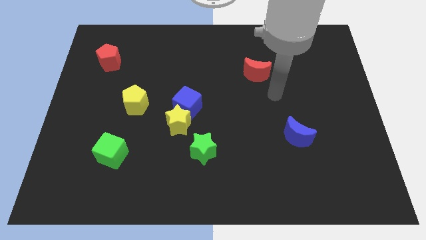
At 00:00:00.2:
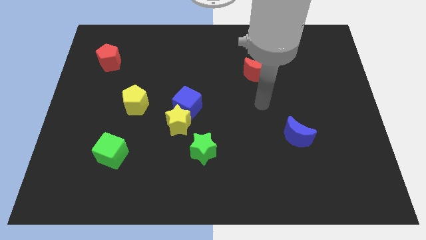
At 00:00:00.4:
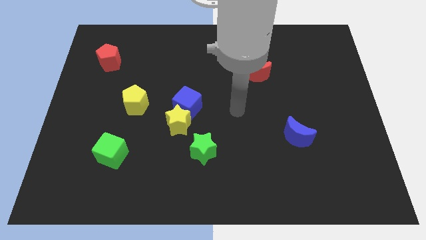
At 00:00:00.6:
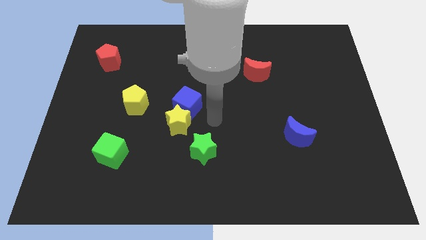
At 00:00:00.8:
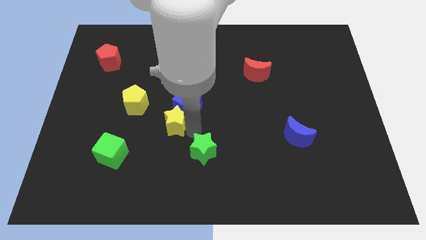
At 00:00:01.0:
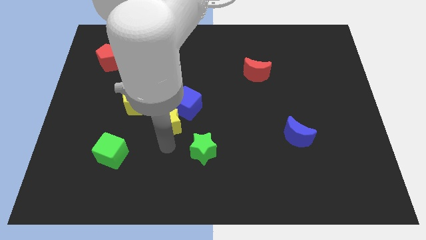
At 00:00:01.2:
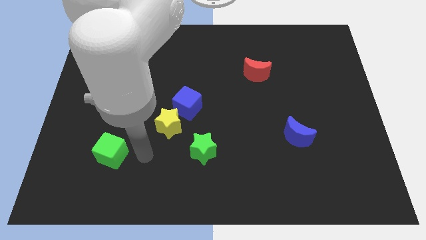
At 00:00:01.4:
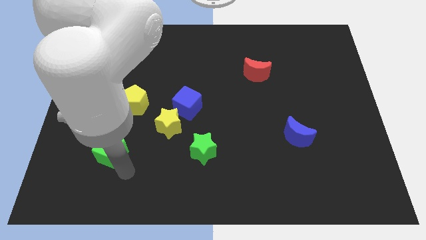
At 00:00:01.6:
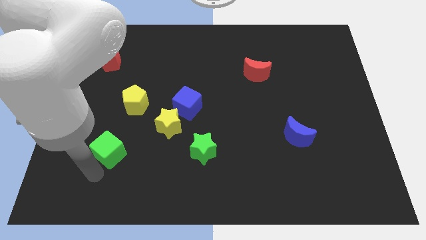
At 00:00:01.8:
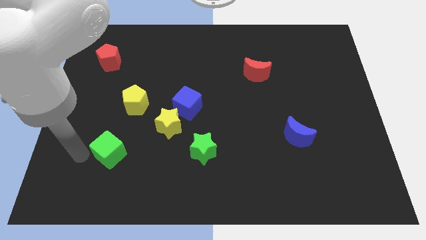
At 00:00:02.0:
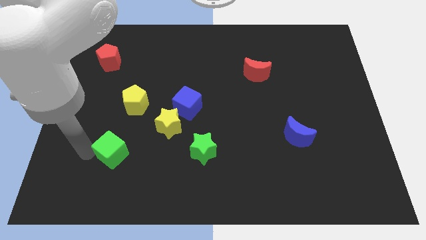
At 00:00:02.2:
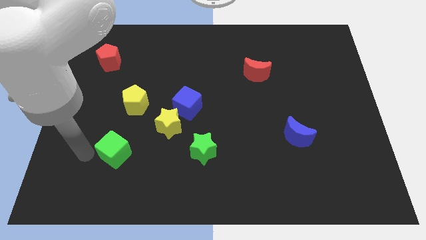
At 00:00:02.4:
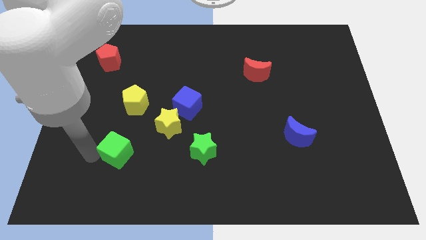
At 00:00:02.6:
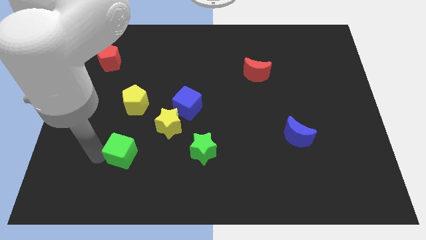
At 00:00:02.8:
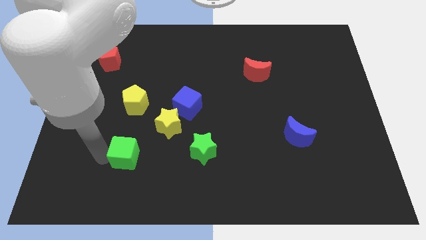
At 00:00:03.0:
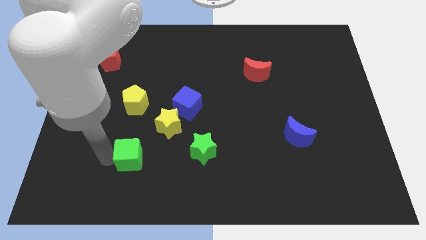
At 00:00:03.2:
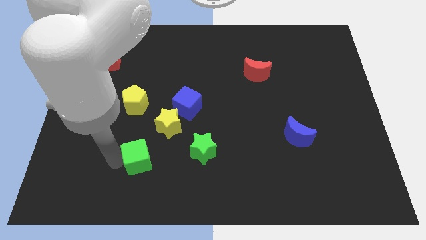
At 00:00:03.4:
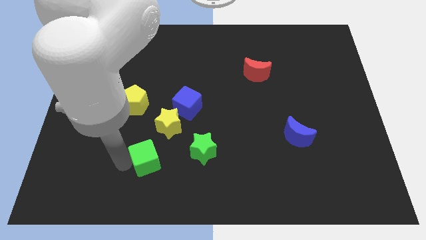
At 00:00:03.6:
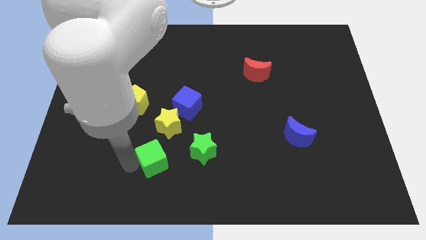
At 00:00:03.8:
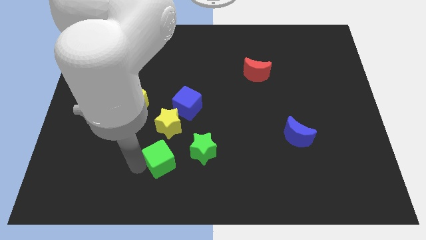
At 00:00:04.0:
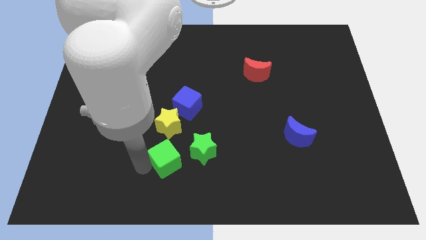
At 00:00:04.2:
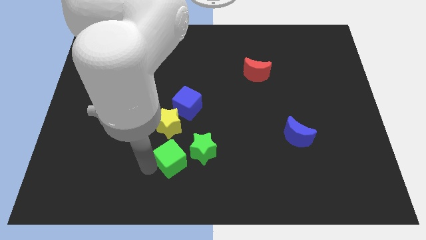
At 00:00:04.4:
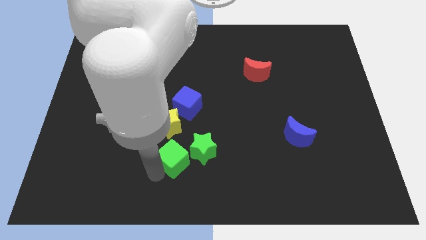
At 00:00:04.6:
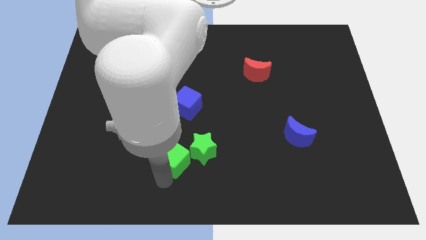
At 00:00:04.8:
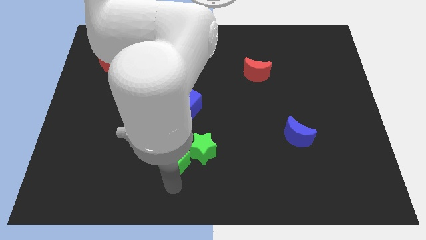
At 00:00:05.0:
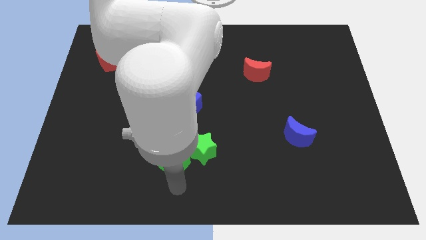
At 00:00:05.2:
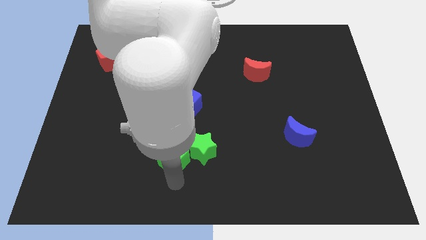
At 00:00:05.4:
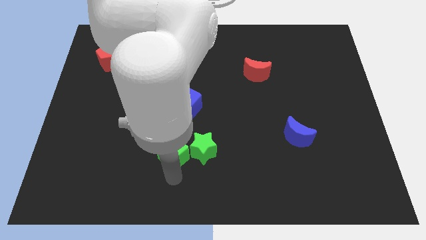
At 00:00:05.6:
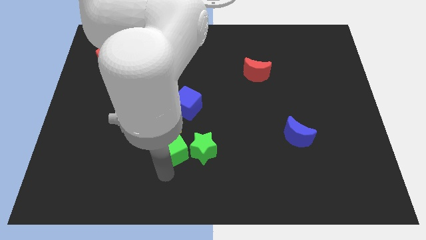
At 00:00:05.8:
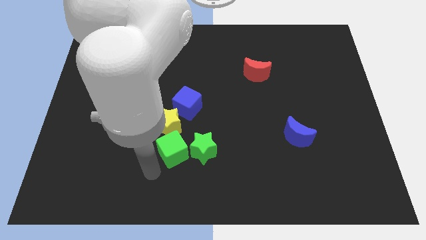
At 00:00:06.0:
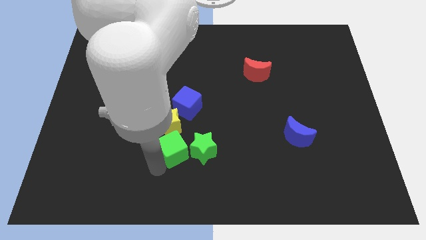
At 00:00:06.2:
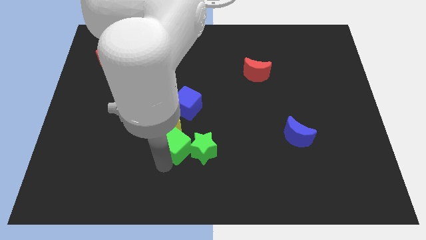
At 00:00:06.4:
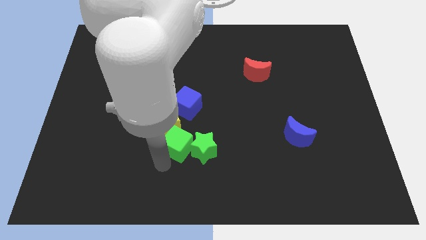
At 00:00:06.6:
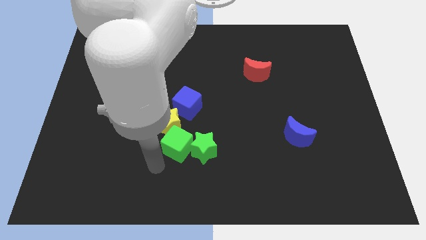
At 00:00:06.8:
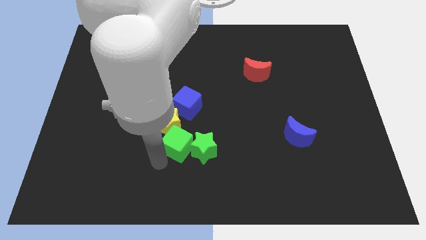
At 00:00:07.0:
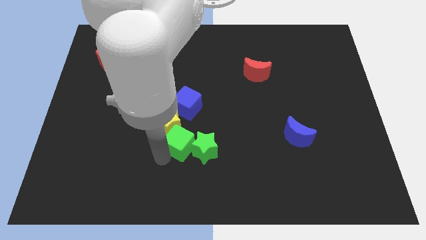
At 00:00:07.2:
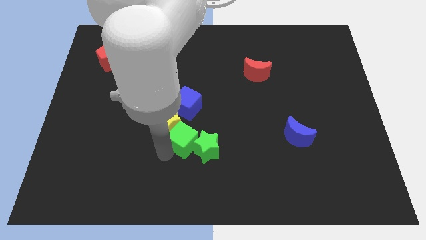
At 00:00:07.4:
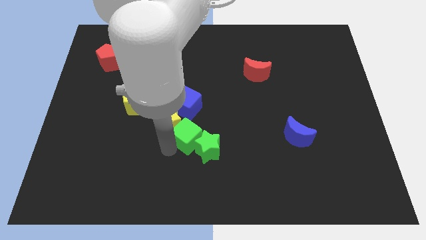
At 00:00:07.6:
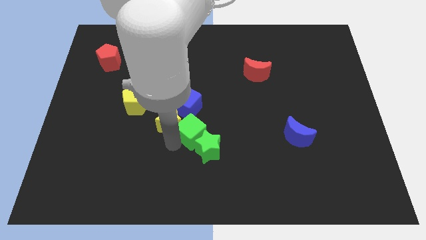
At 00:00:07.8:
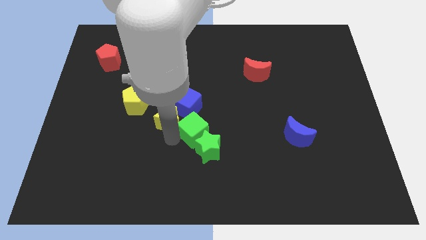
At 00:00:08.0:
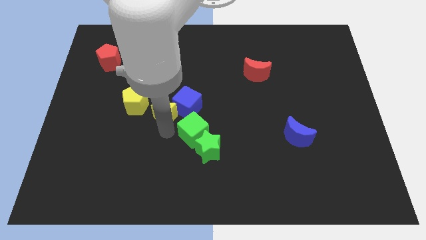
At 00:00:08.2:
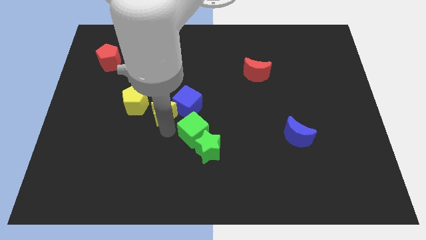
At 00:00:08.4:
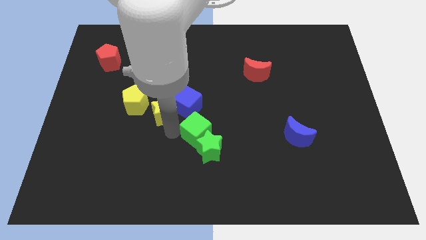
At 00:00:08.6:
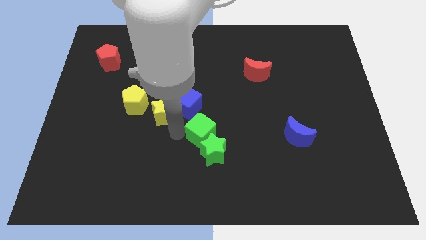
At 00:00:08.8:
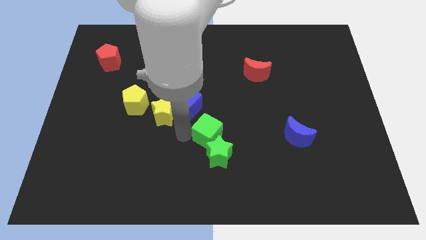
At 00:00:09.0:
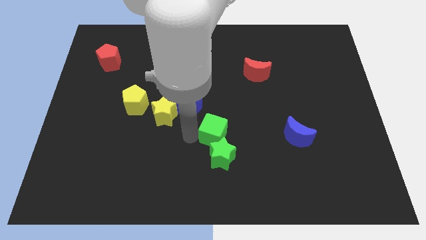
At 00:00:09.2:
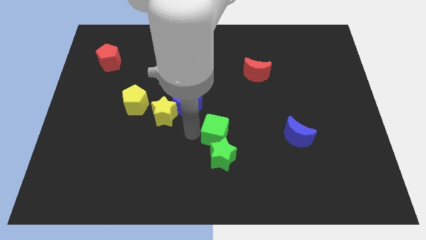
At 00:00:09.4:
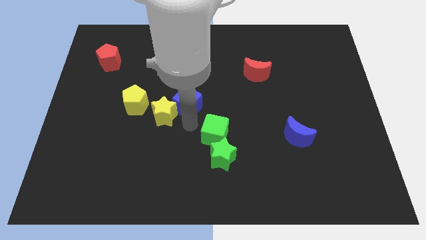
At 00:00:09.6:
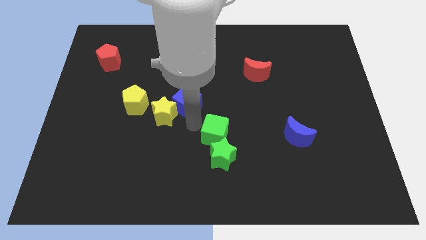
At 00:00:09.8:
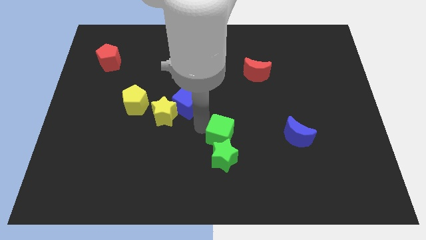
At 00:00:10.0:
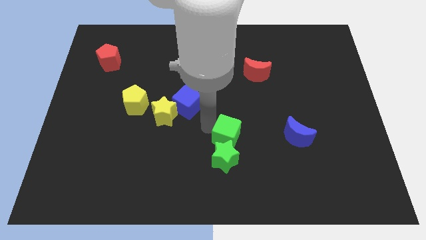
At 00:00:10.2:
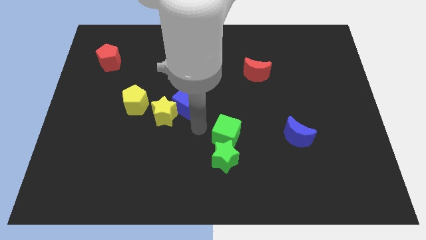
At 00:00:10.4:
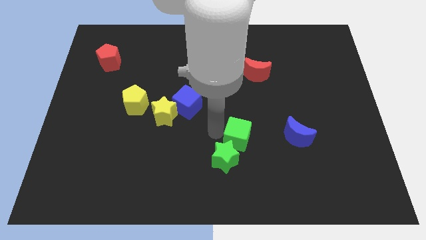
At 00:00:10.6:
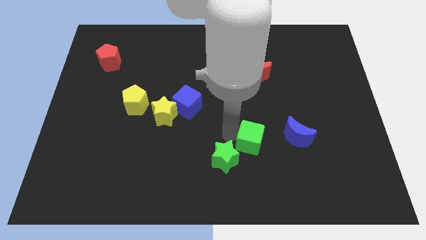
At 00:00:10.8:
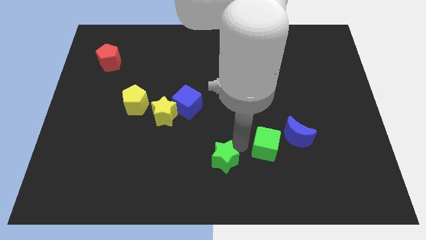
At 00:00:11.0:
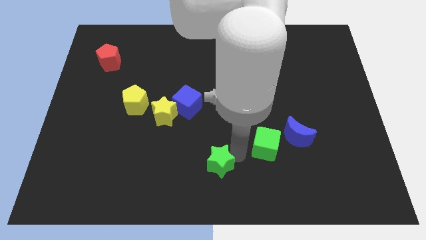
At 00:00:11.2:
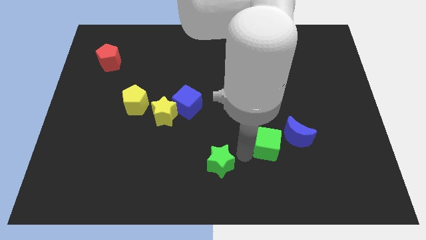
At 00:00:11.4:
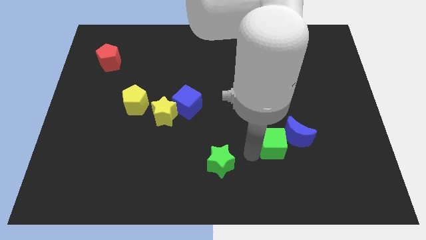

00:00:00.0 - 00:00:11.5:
slide the green cube close to the blue moon
